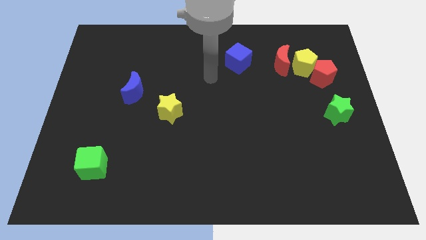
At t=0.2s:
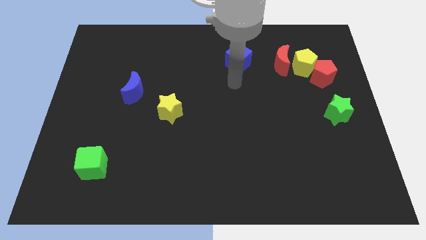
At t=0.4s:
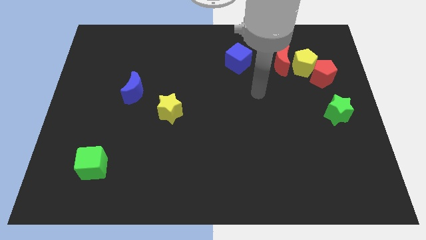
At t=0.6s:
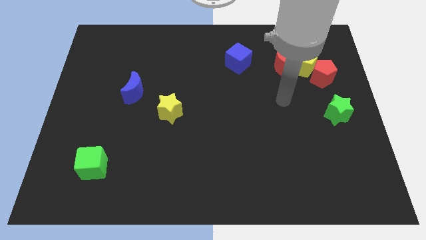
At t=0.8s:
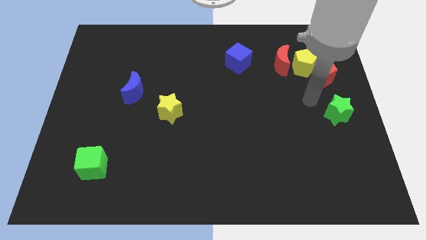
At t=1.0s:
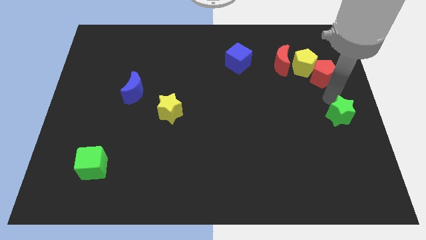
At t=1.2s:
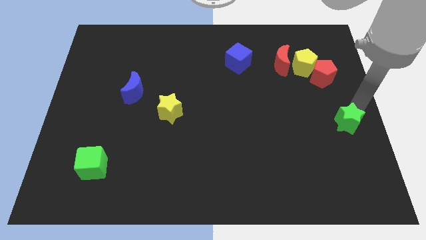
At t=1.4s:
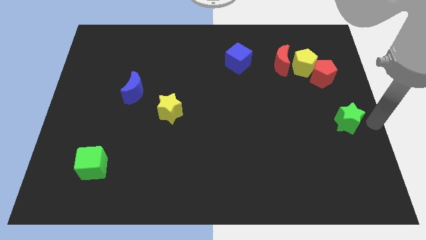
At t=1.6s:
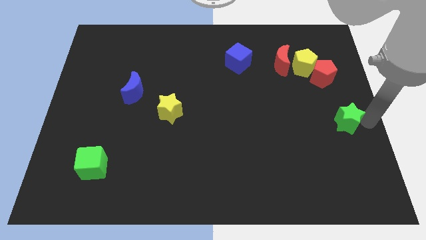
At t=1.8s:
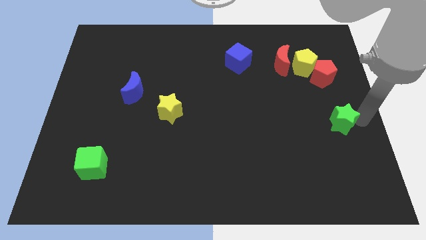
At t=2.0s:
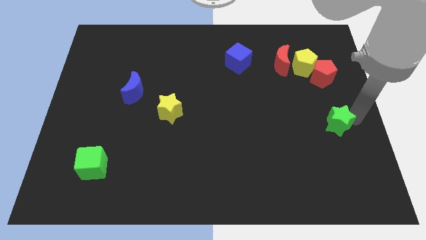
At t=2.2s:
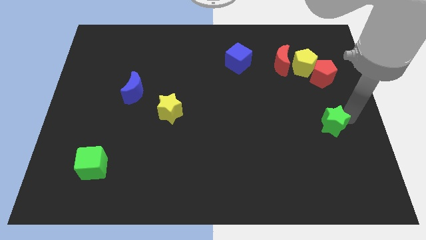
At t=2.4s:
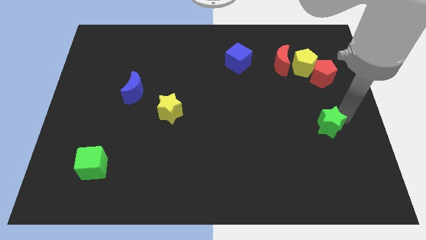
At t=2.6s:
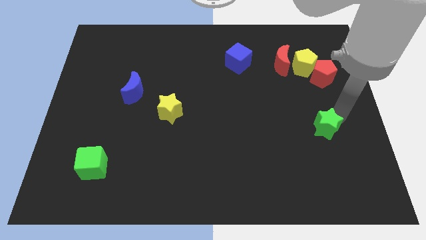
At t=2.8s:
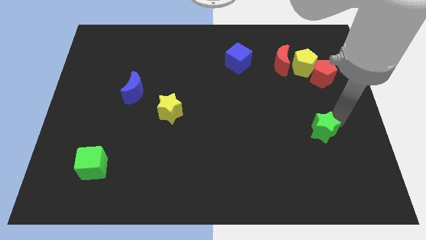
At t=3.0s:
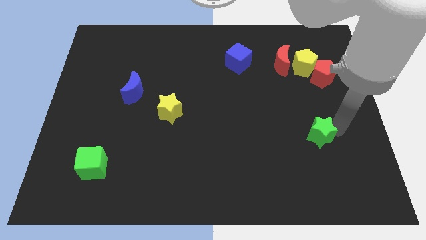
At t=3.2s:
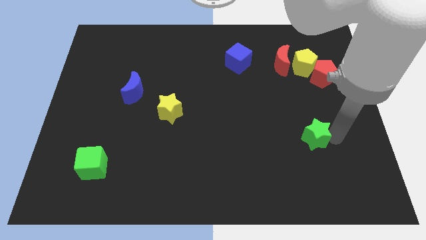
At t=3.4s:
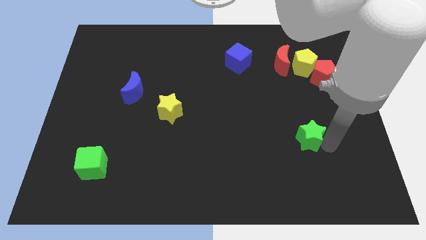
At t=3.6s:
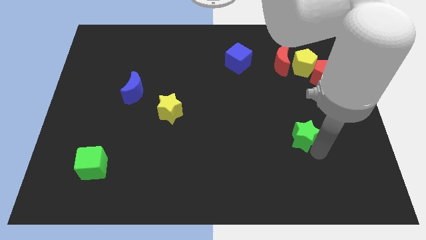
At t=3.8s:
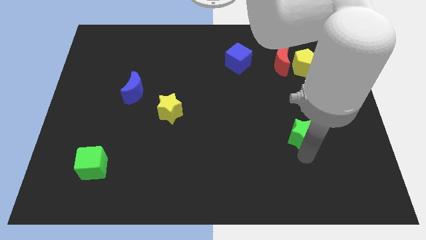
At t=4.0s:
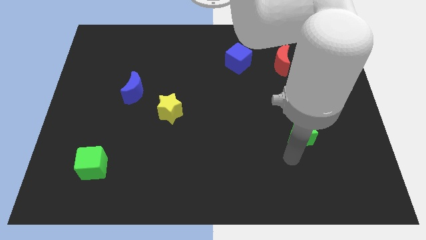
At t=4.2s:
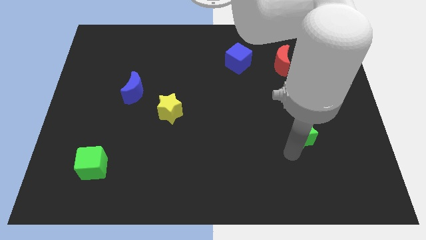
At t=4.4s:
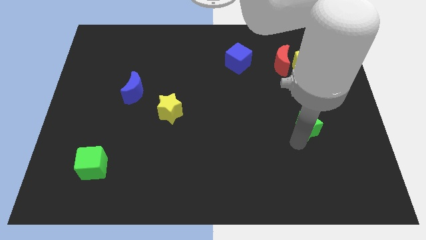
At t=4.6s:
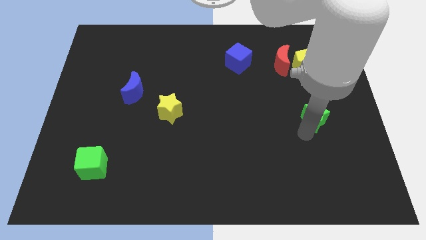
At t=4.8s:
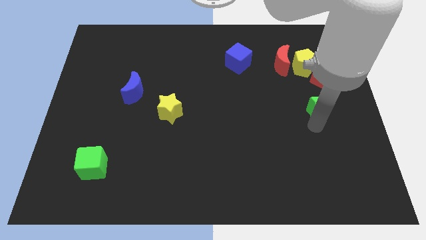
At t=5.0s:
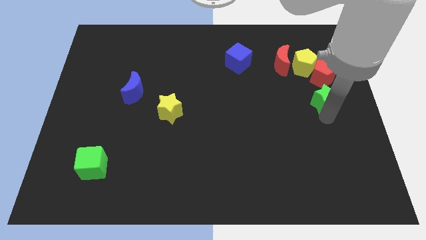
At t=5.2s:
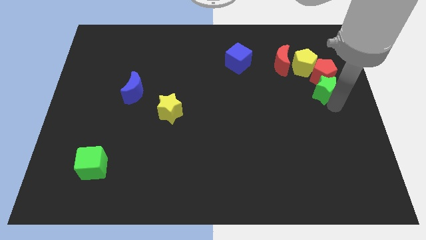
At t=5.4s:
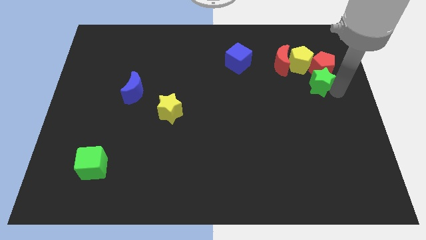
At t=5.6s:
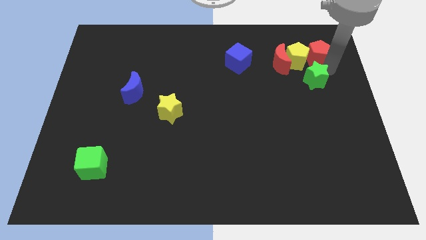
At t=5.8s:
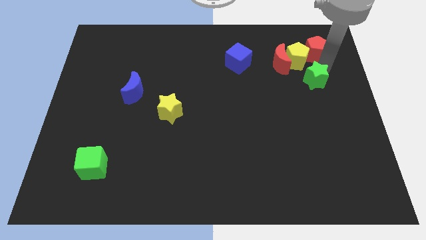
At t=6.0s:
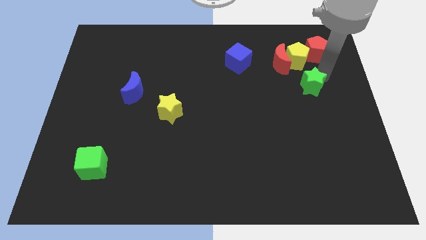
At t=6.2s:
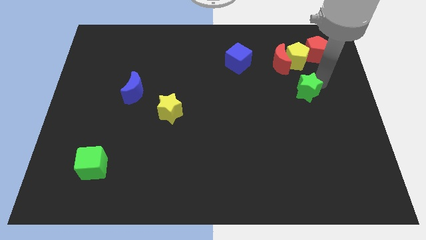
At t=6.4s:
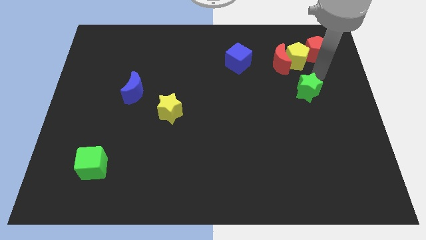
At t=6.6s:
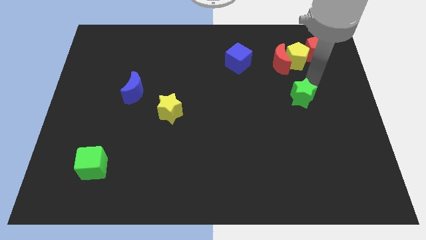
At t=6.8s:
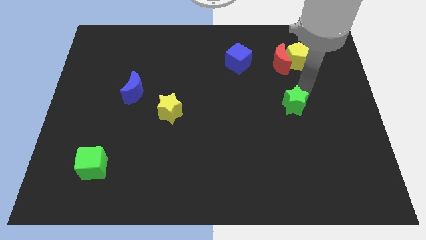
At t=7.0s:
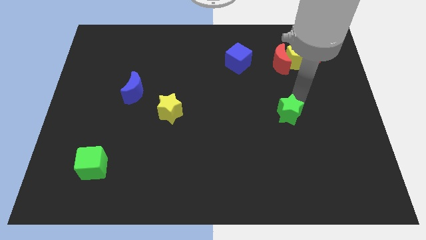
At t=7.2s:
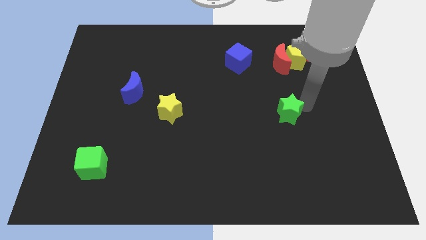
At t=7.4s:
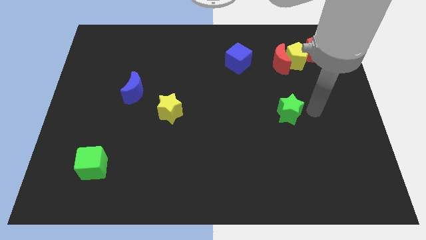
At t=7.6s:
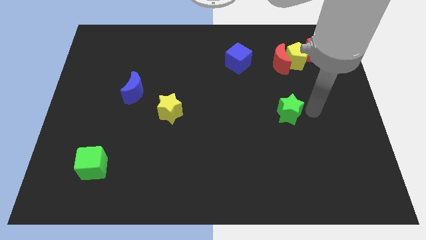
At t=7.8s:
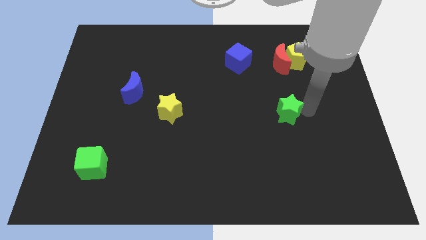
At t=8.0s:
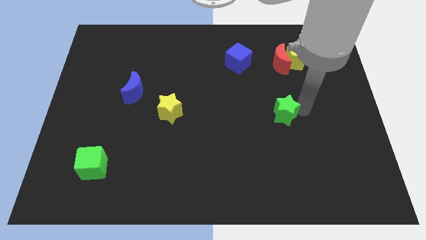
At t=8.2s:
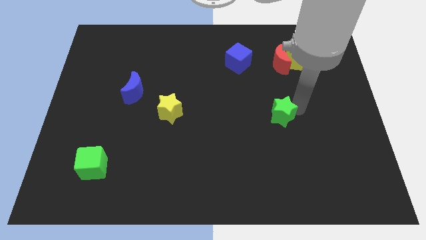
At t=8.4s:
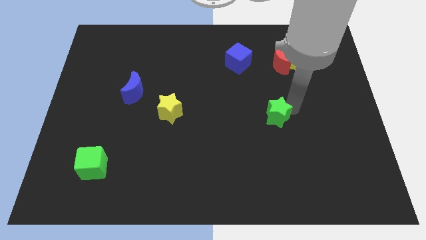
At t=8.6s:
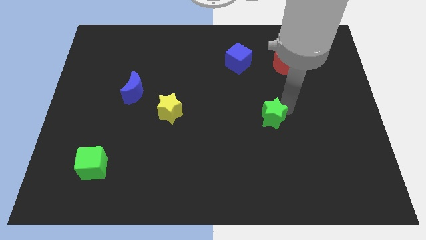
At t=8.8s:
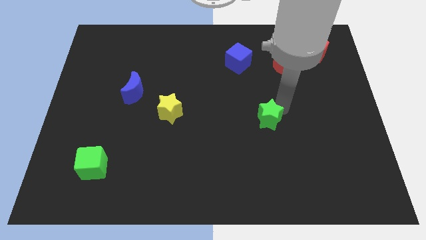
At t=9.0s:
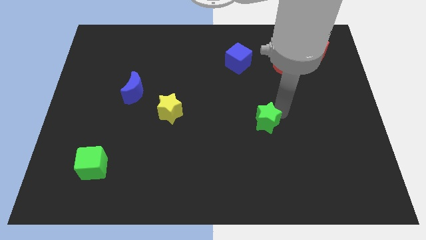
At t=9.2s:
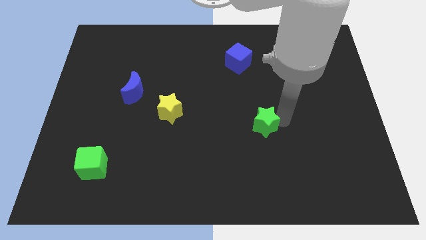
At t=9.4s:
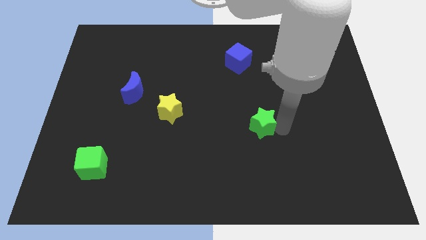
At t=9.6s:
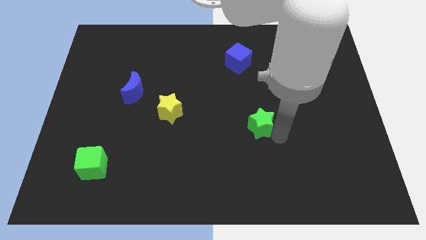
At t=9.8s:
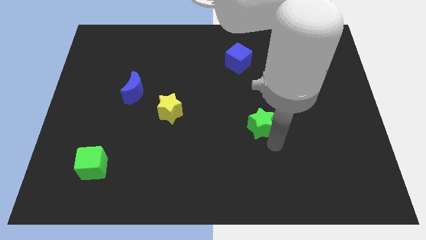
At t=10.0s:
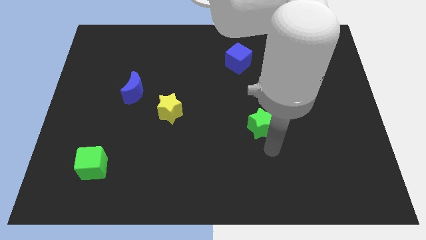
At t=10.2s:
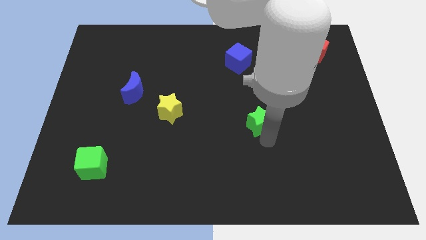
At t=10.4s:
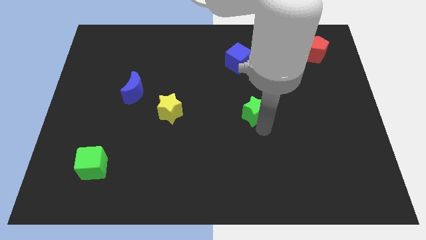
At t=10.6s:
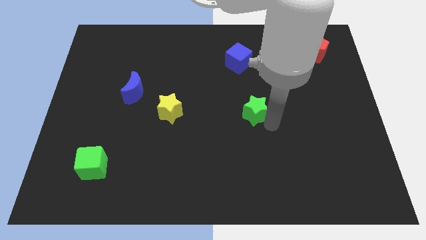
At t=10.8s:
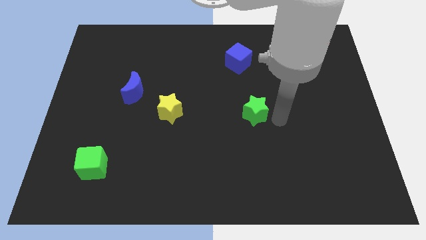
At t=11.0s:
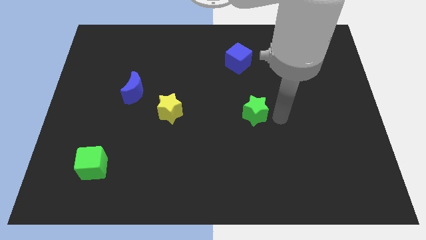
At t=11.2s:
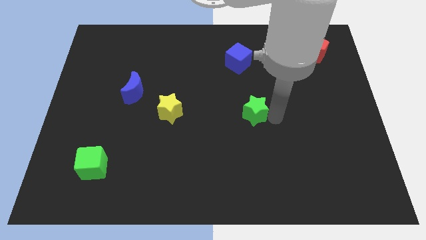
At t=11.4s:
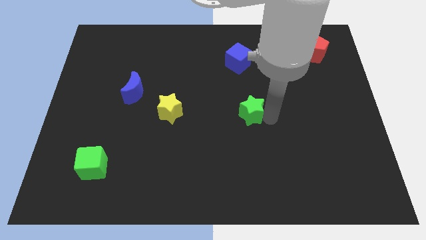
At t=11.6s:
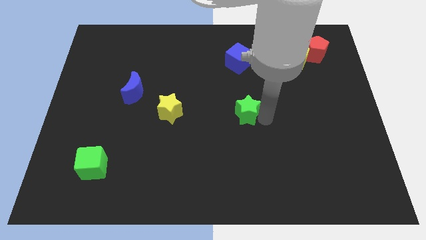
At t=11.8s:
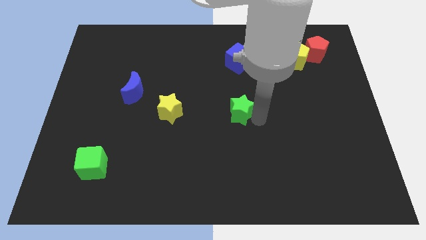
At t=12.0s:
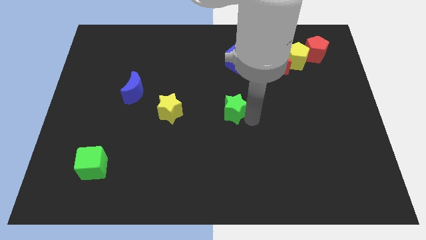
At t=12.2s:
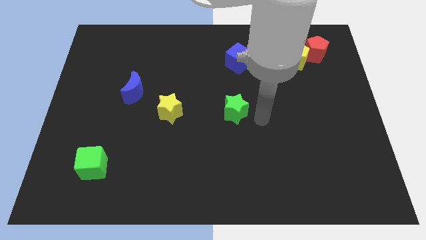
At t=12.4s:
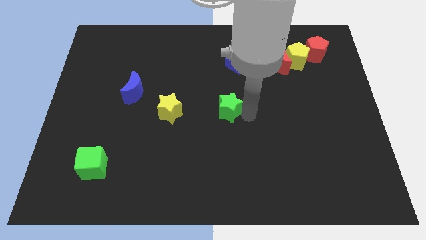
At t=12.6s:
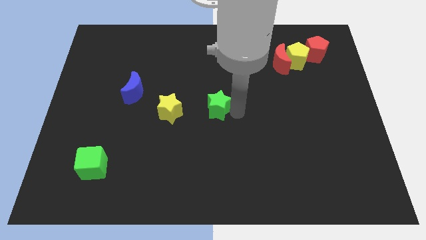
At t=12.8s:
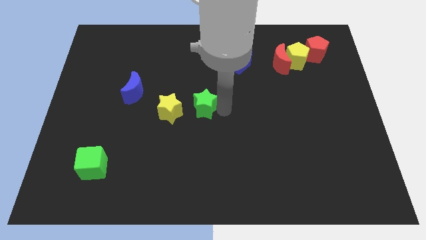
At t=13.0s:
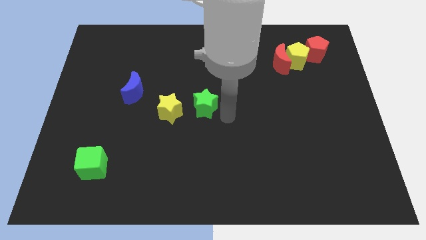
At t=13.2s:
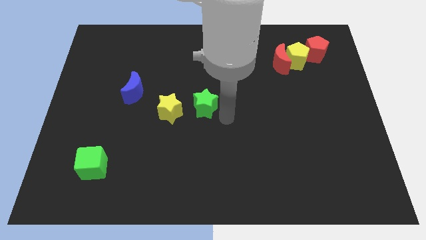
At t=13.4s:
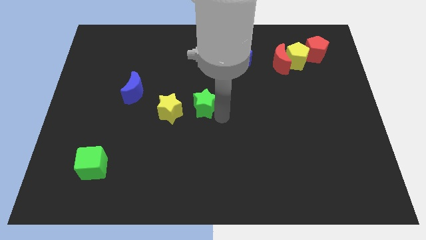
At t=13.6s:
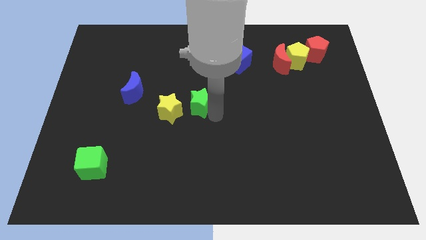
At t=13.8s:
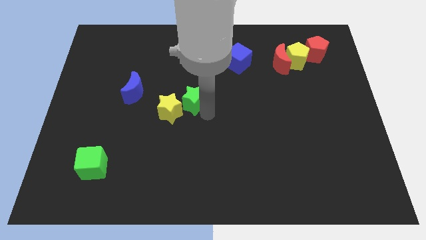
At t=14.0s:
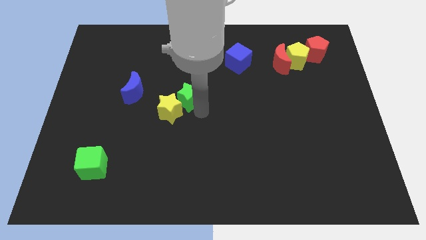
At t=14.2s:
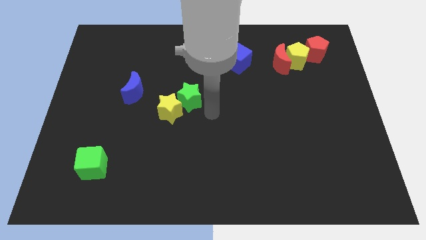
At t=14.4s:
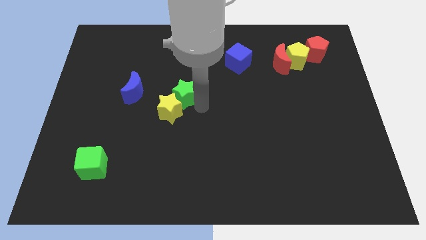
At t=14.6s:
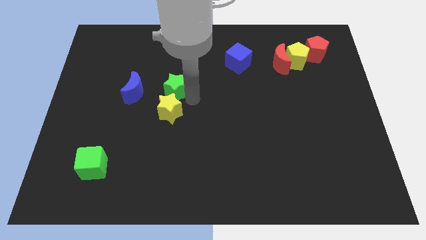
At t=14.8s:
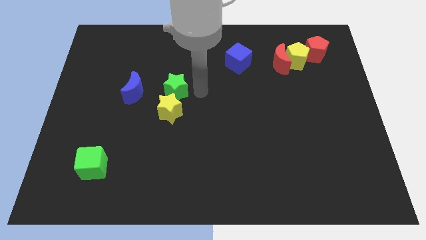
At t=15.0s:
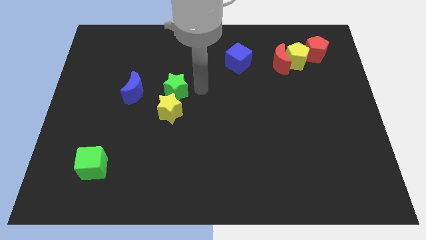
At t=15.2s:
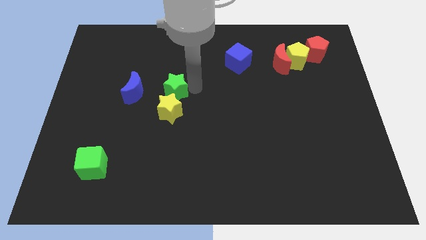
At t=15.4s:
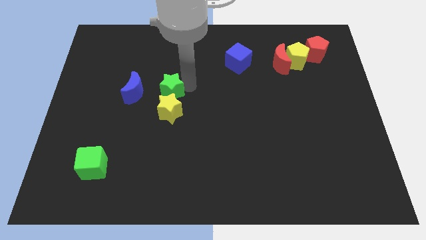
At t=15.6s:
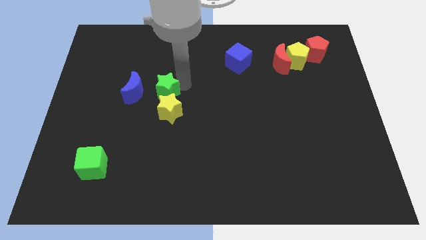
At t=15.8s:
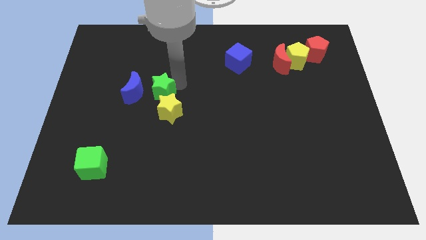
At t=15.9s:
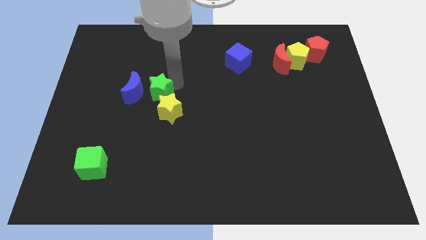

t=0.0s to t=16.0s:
slide the green star to the blue moon
